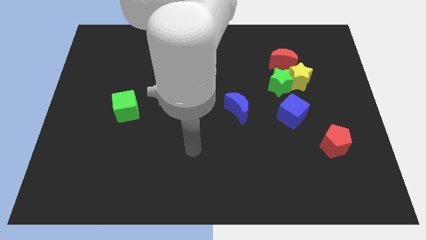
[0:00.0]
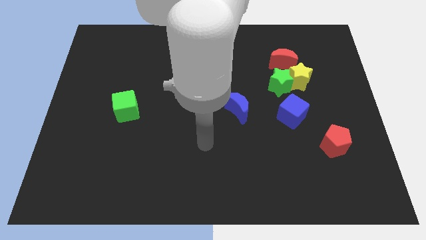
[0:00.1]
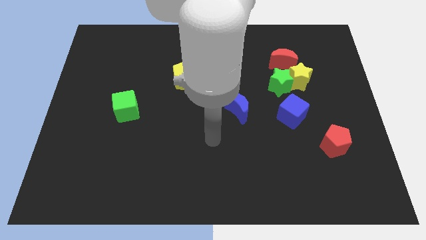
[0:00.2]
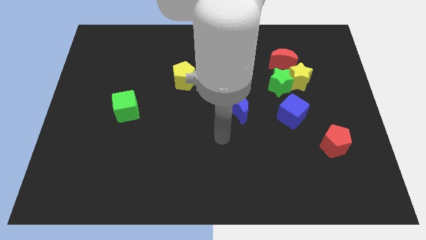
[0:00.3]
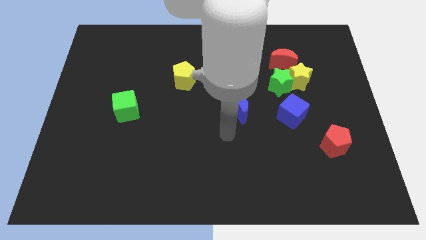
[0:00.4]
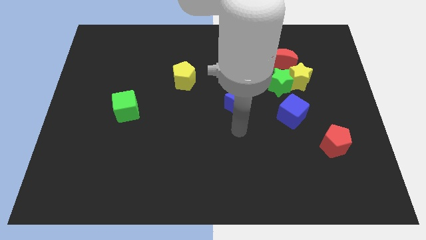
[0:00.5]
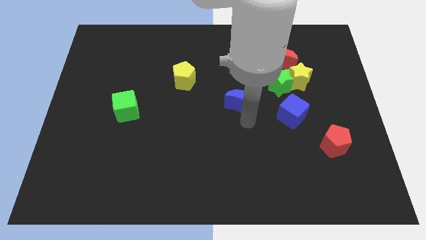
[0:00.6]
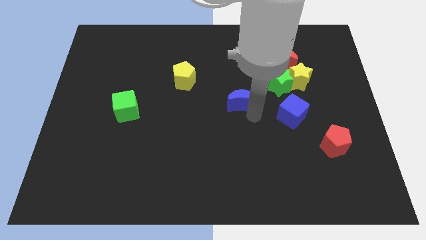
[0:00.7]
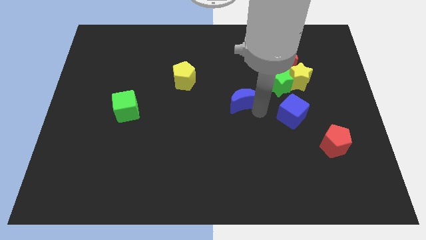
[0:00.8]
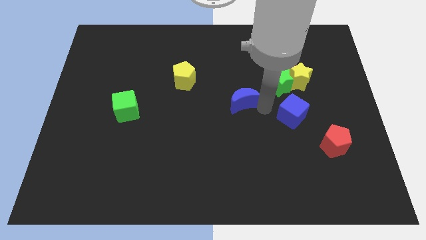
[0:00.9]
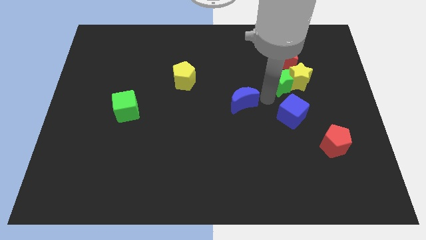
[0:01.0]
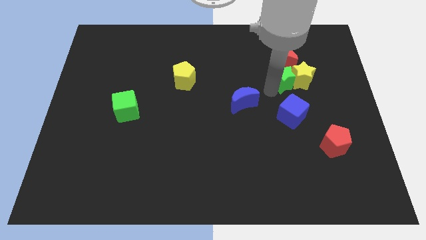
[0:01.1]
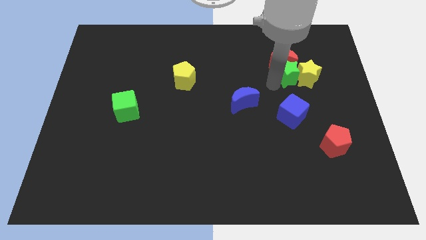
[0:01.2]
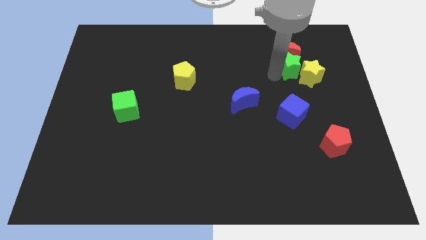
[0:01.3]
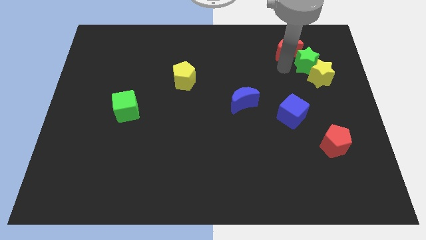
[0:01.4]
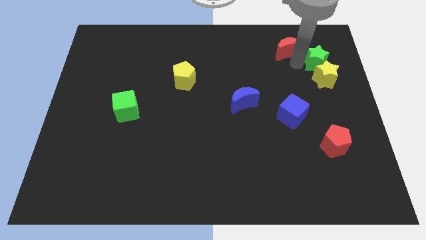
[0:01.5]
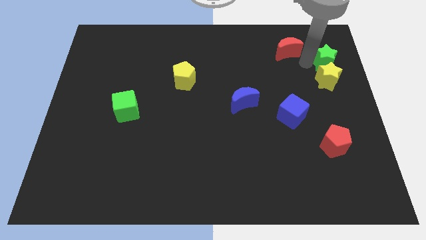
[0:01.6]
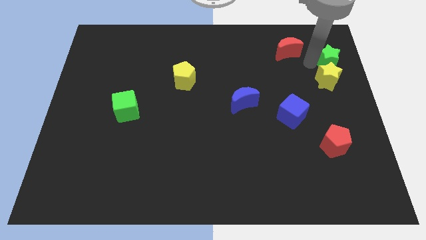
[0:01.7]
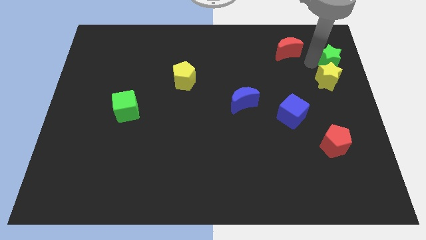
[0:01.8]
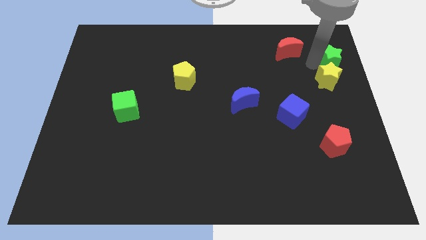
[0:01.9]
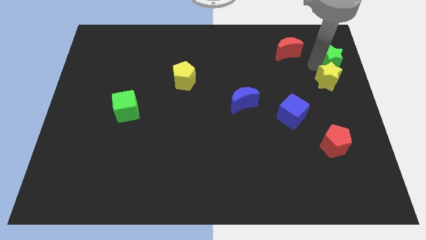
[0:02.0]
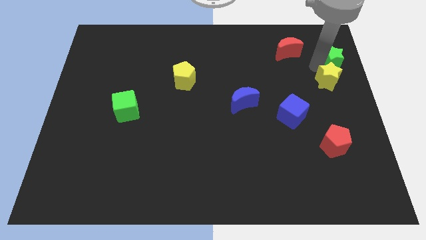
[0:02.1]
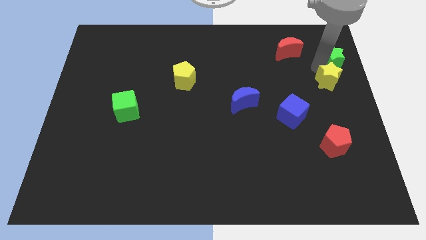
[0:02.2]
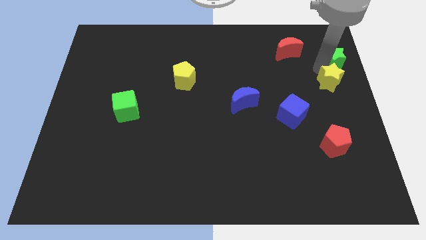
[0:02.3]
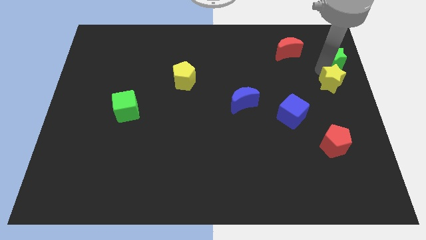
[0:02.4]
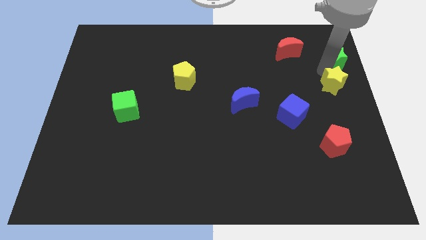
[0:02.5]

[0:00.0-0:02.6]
pull the yellow star apart from the green star and red moon

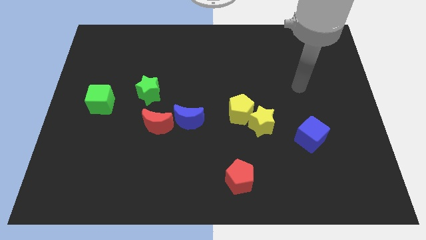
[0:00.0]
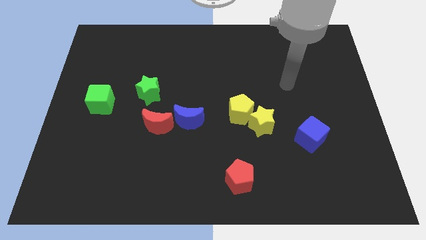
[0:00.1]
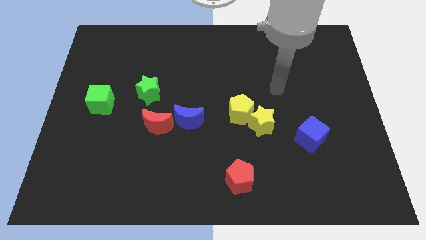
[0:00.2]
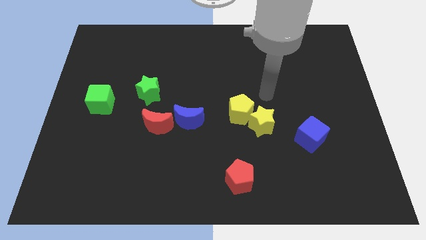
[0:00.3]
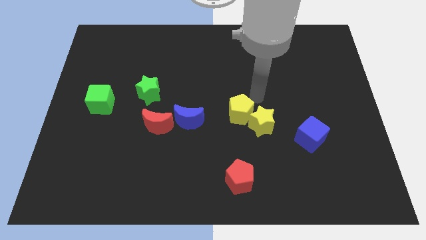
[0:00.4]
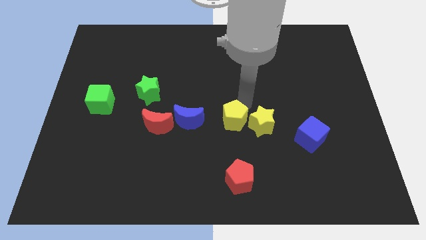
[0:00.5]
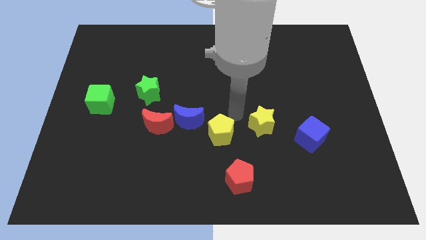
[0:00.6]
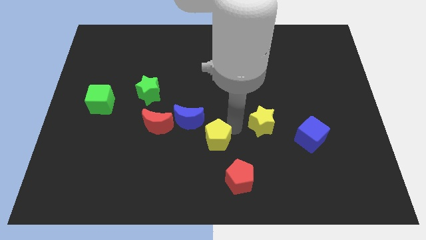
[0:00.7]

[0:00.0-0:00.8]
move the yellow star away from the yellow pentagon

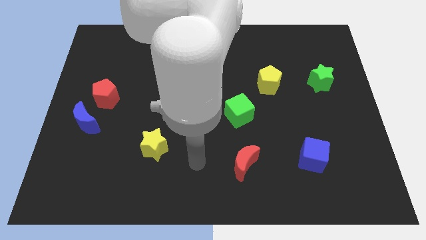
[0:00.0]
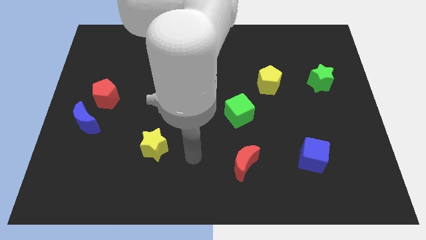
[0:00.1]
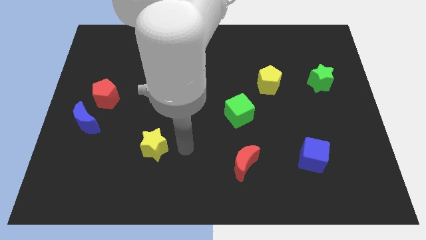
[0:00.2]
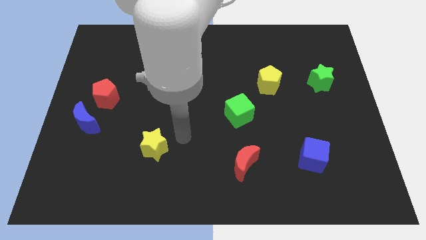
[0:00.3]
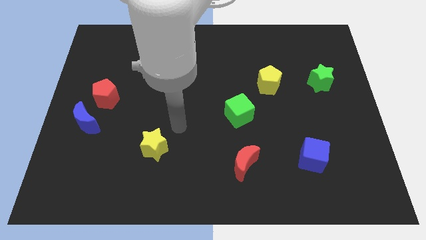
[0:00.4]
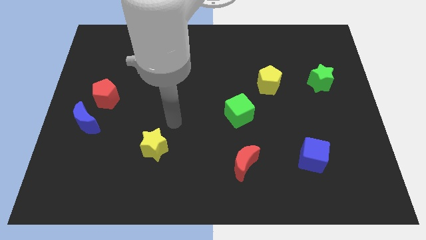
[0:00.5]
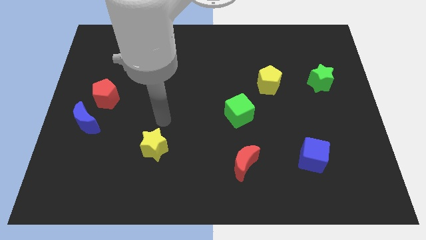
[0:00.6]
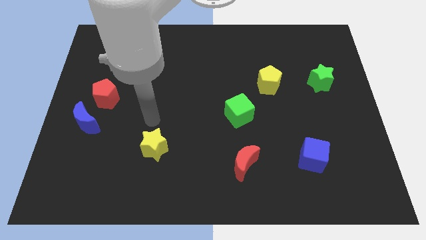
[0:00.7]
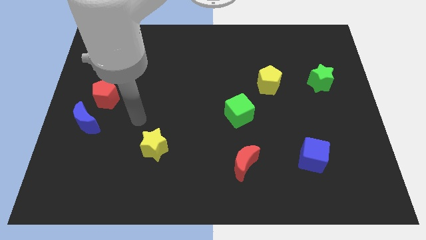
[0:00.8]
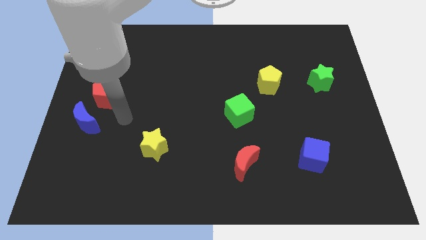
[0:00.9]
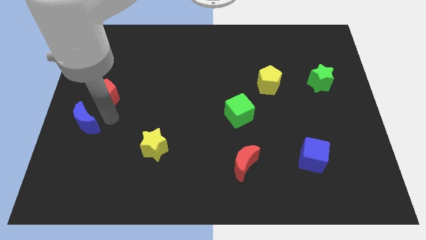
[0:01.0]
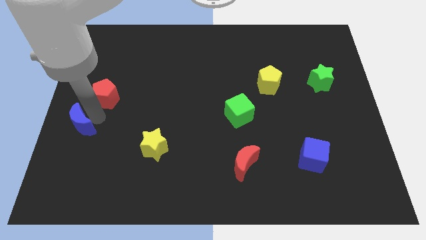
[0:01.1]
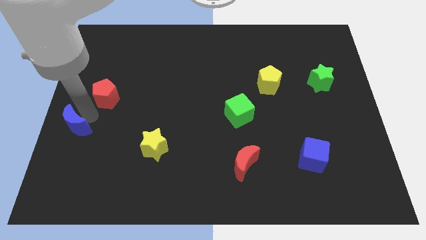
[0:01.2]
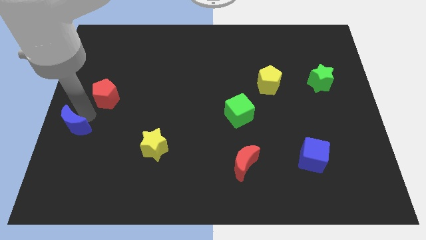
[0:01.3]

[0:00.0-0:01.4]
separate the red pentagon from the blue moon

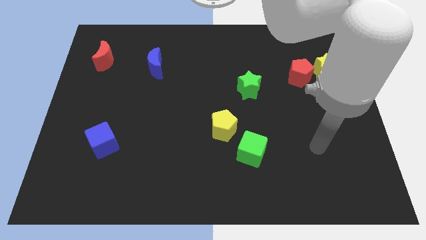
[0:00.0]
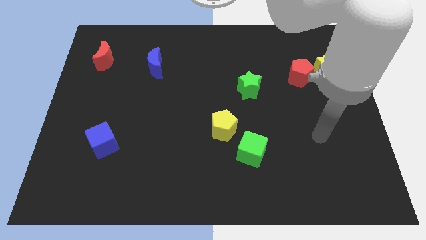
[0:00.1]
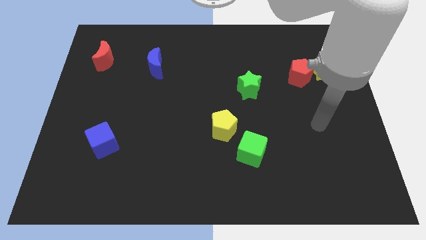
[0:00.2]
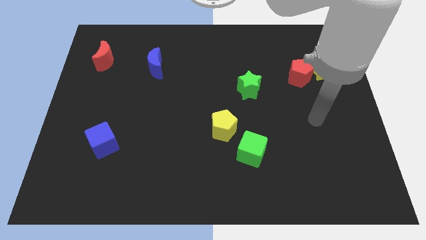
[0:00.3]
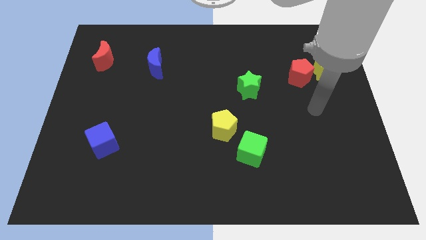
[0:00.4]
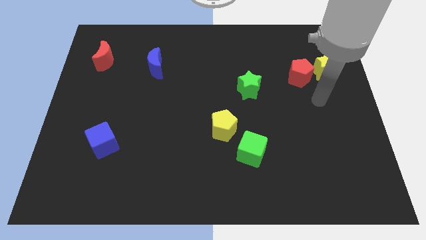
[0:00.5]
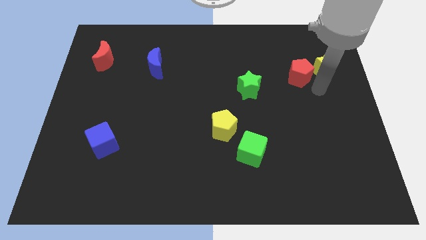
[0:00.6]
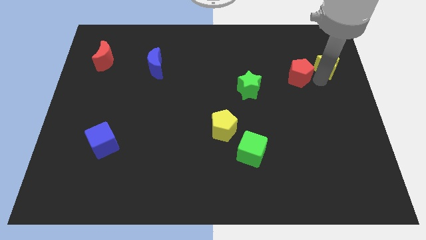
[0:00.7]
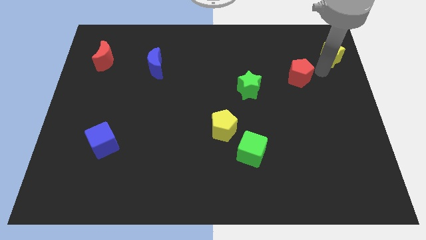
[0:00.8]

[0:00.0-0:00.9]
move the red pentagon away from the yellow star

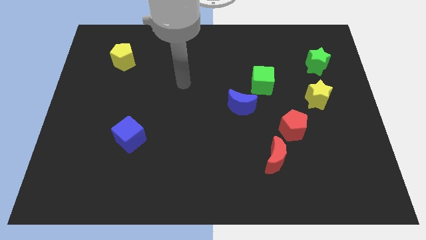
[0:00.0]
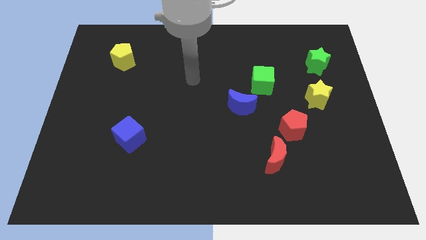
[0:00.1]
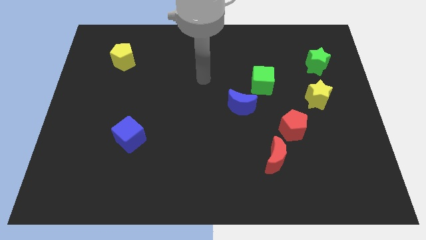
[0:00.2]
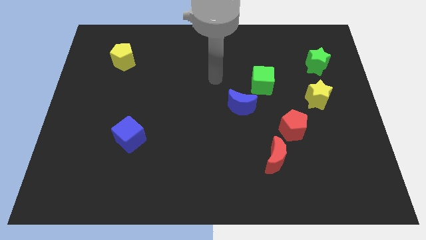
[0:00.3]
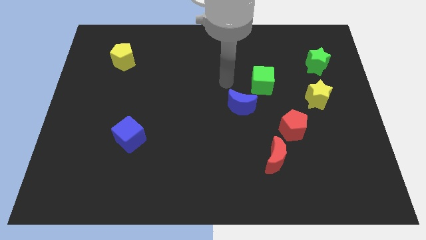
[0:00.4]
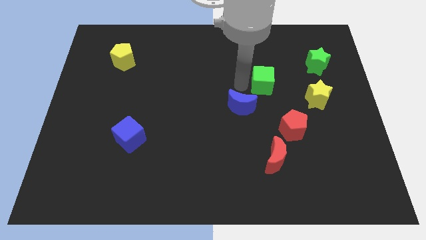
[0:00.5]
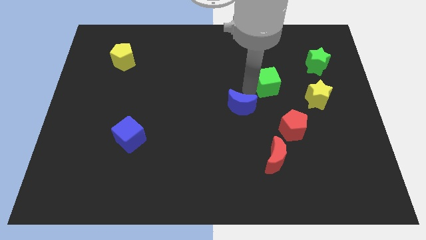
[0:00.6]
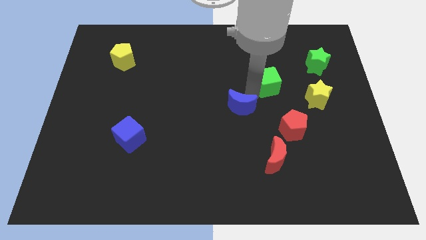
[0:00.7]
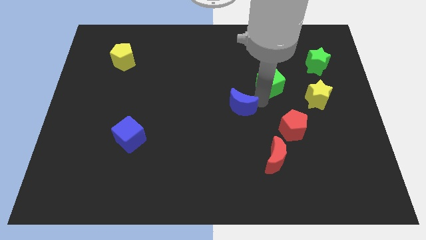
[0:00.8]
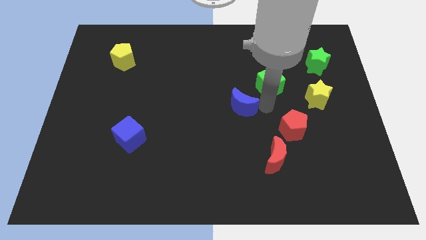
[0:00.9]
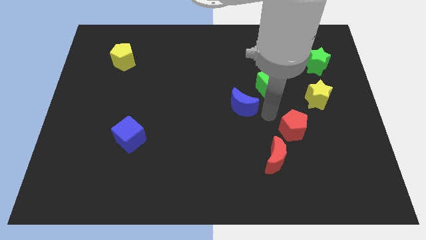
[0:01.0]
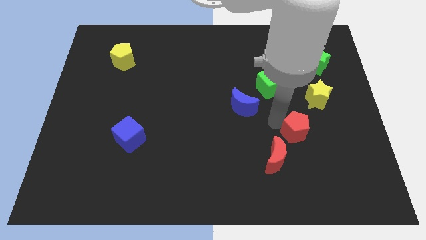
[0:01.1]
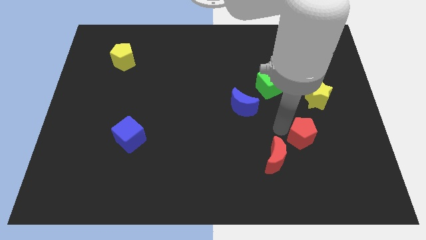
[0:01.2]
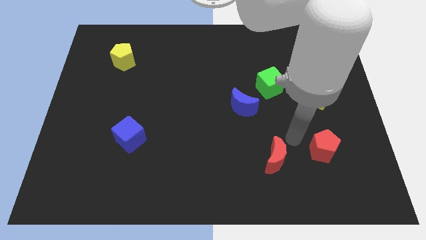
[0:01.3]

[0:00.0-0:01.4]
move the red moon away from the red pentagon

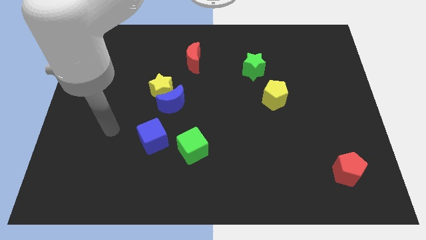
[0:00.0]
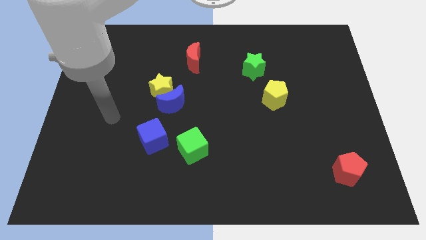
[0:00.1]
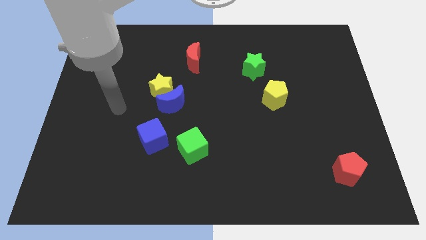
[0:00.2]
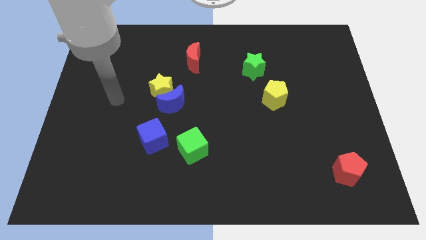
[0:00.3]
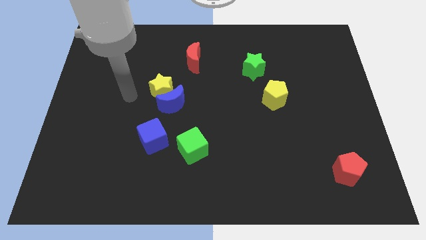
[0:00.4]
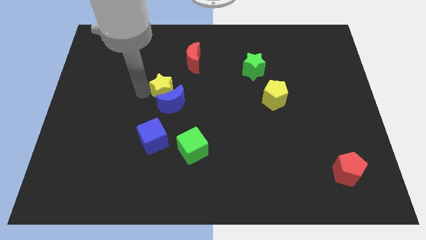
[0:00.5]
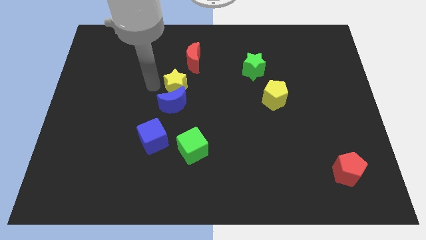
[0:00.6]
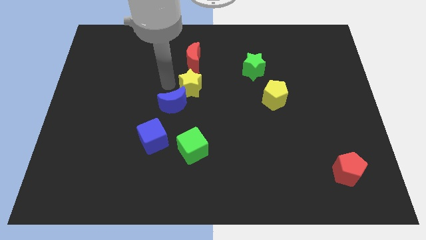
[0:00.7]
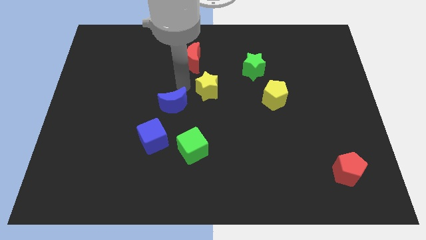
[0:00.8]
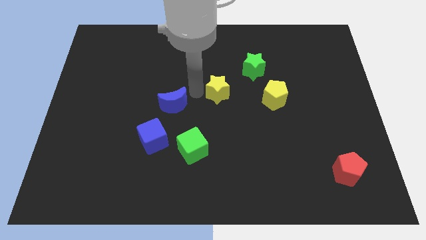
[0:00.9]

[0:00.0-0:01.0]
move the blue moon away from the yellow star

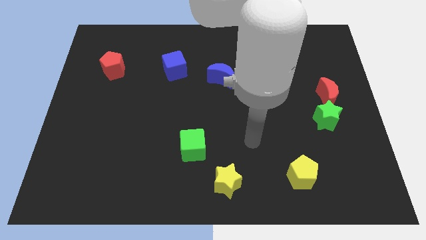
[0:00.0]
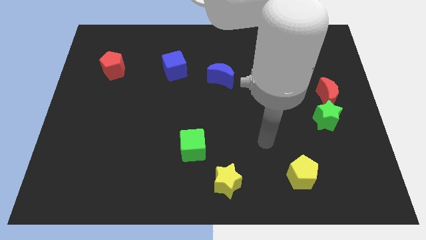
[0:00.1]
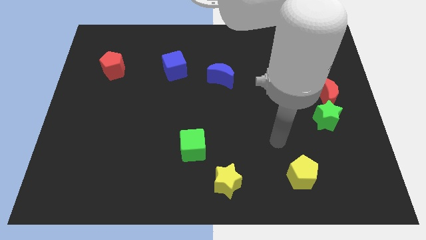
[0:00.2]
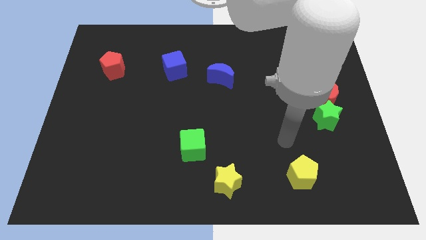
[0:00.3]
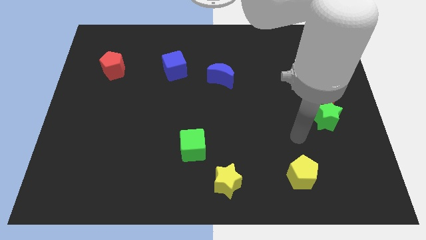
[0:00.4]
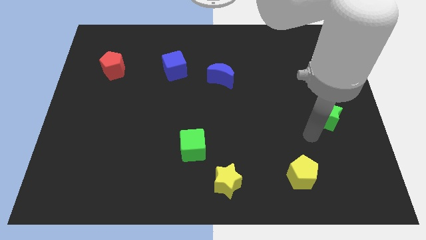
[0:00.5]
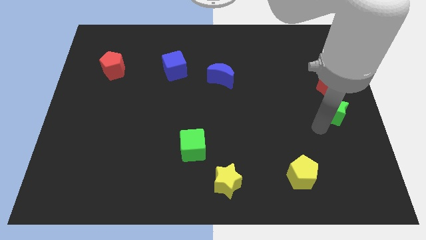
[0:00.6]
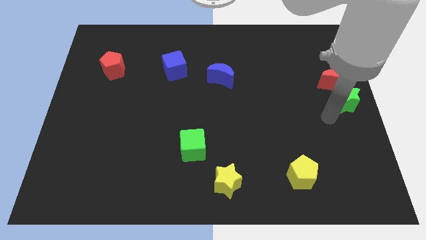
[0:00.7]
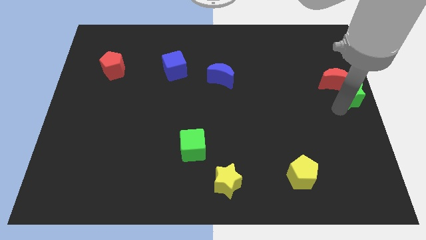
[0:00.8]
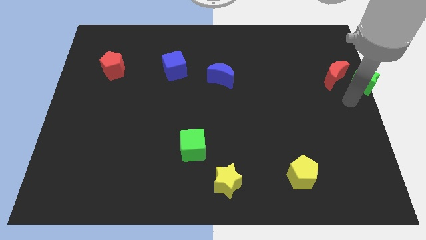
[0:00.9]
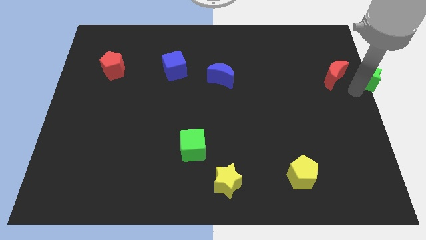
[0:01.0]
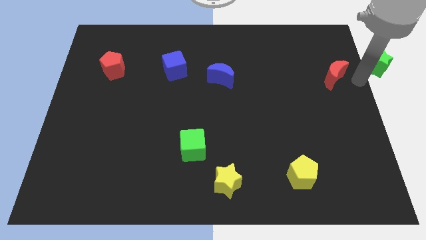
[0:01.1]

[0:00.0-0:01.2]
pull the red moon apart from the green star
